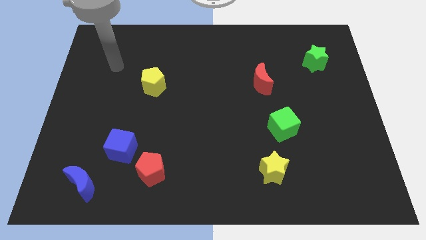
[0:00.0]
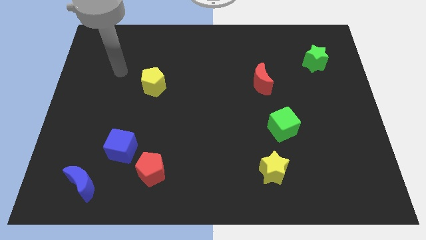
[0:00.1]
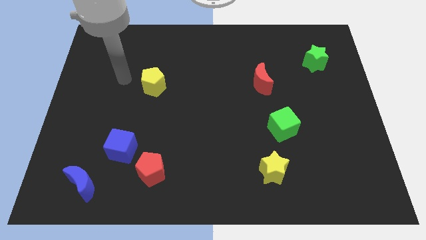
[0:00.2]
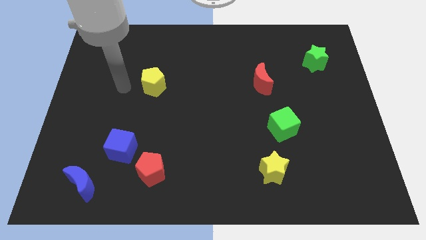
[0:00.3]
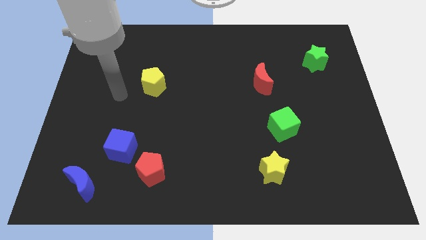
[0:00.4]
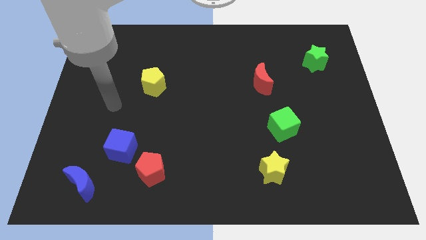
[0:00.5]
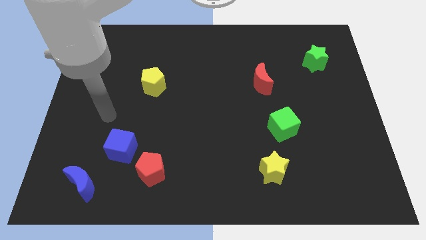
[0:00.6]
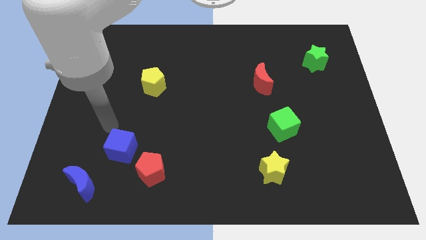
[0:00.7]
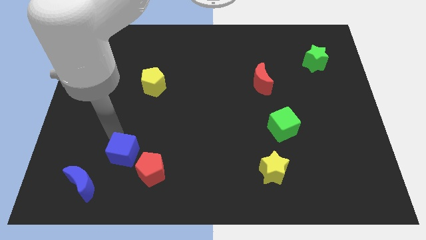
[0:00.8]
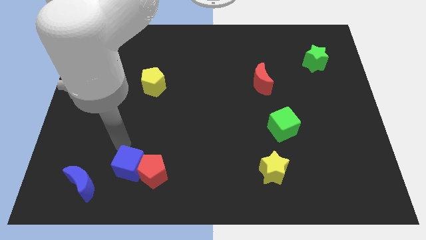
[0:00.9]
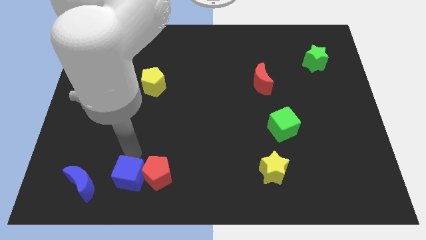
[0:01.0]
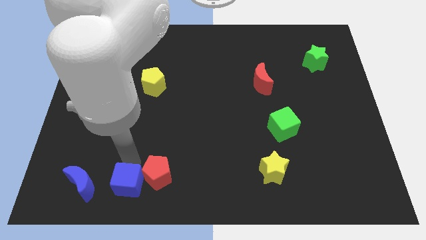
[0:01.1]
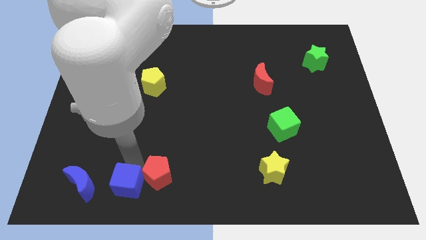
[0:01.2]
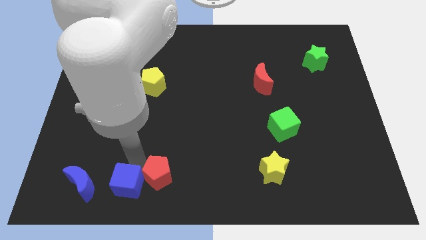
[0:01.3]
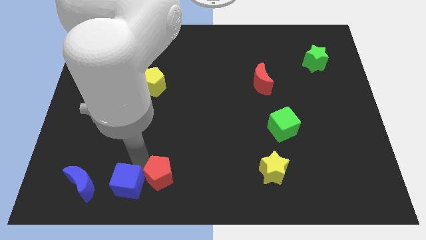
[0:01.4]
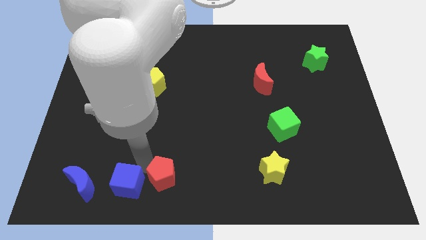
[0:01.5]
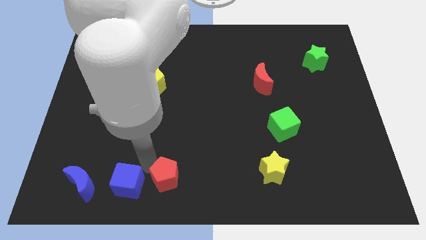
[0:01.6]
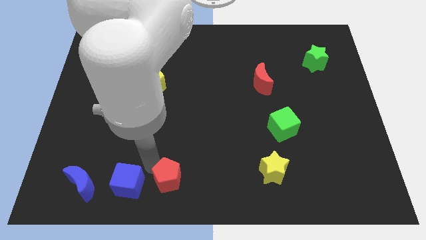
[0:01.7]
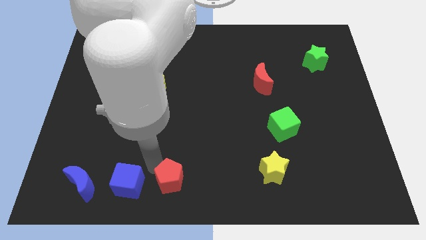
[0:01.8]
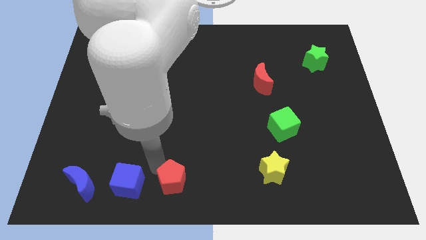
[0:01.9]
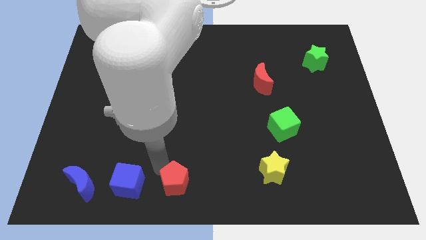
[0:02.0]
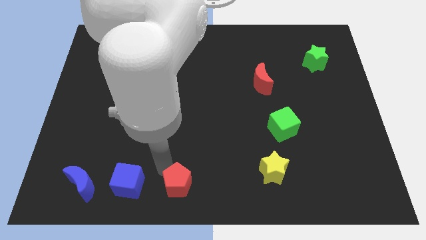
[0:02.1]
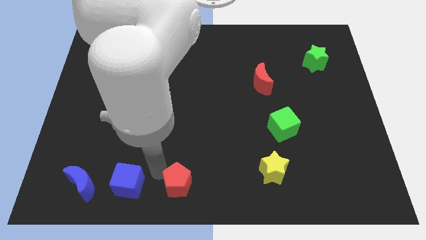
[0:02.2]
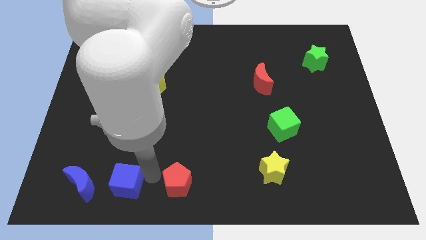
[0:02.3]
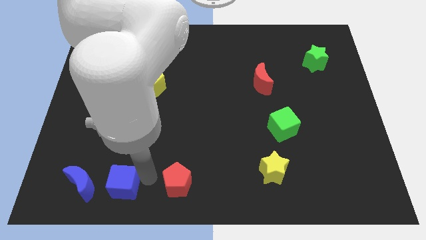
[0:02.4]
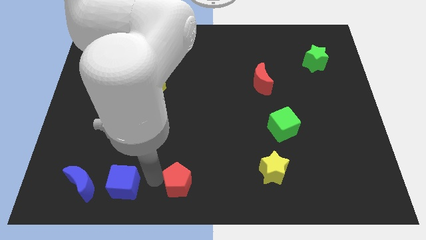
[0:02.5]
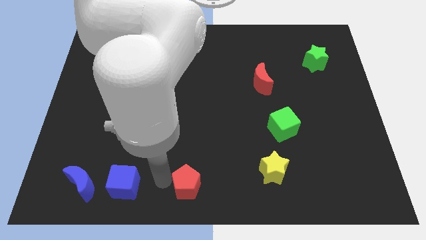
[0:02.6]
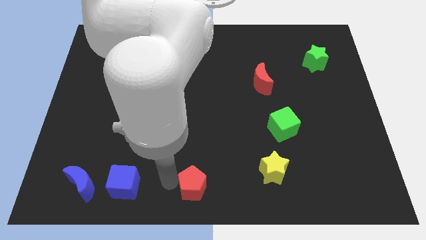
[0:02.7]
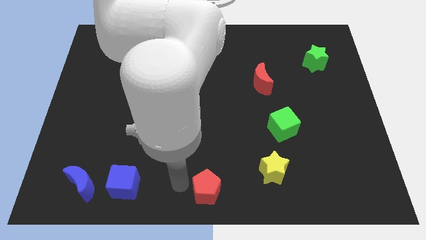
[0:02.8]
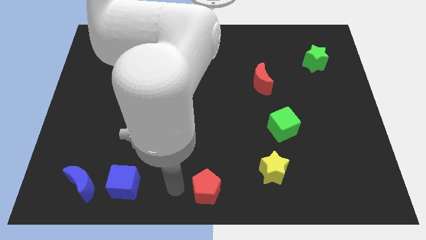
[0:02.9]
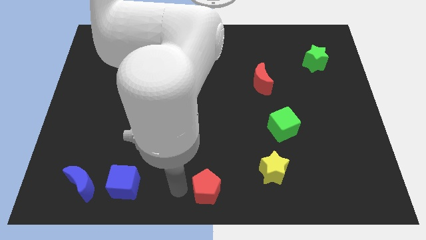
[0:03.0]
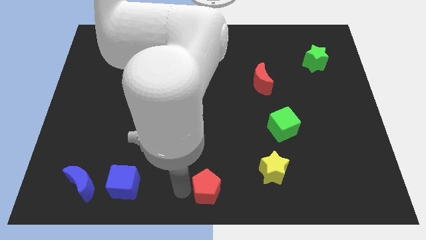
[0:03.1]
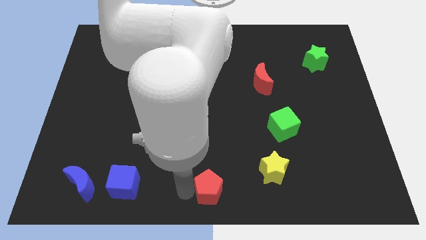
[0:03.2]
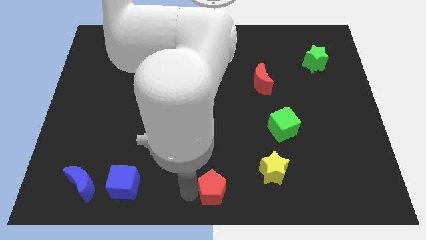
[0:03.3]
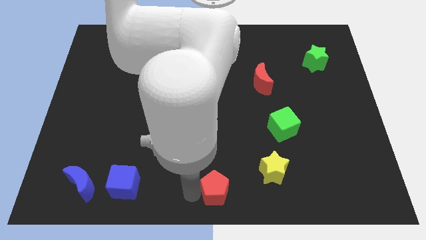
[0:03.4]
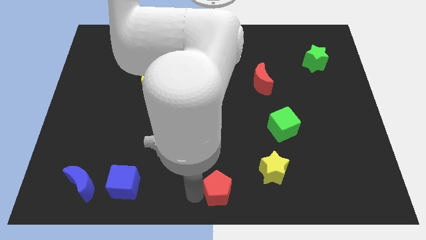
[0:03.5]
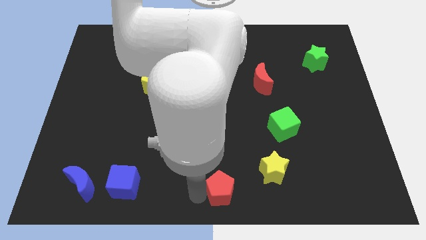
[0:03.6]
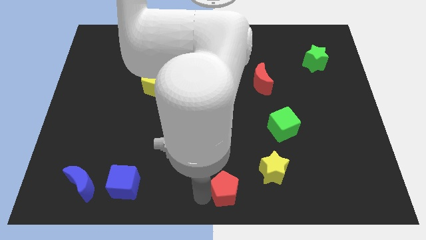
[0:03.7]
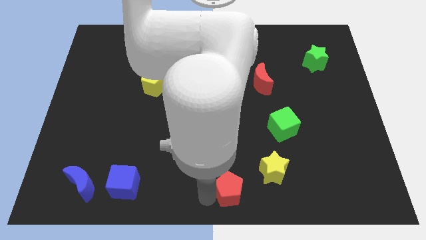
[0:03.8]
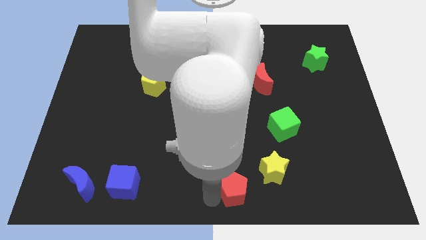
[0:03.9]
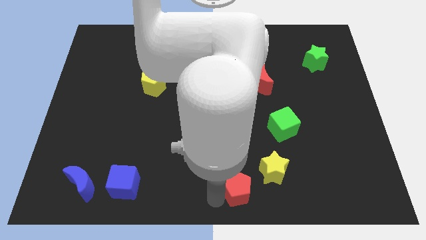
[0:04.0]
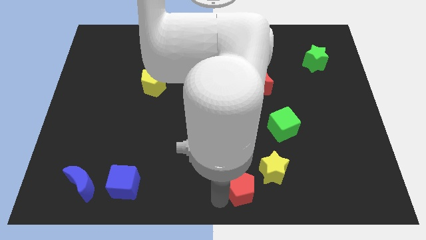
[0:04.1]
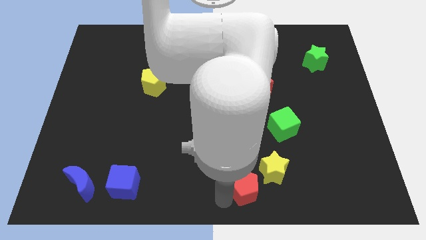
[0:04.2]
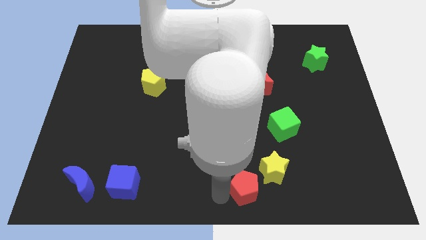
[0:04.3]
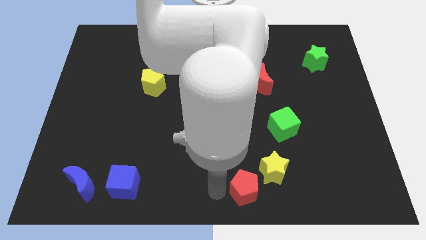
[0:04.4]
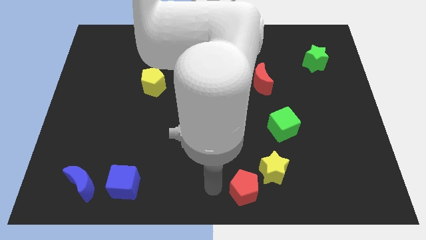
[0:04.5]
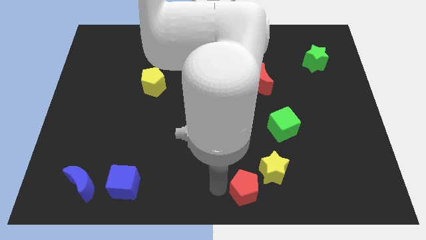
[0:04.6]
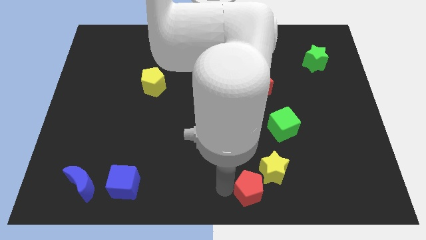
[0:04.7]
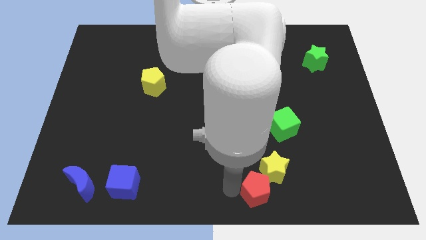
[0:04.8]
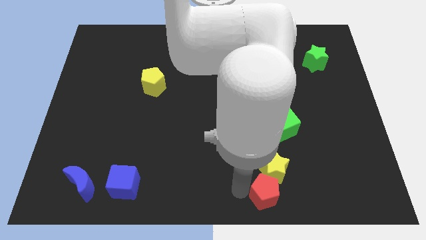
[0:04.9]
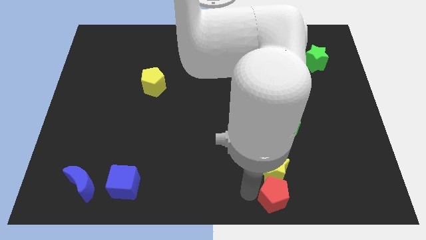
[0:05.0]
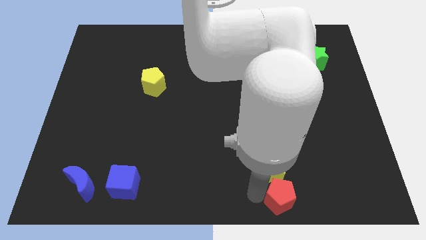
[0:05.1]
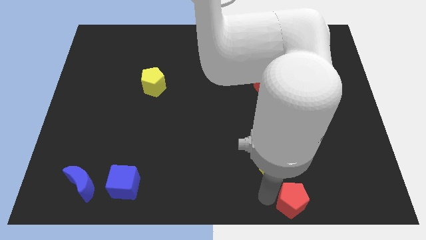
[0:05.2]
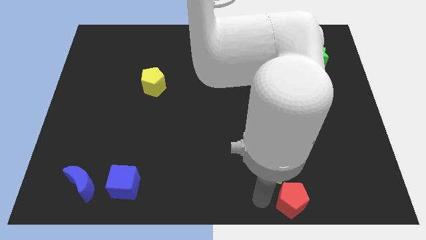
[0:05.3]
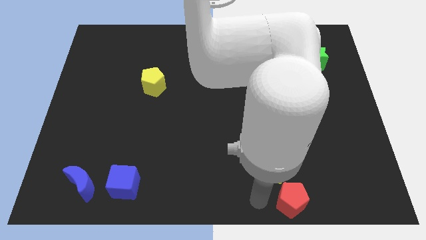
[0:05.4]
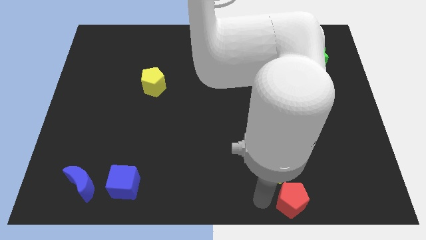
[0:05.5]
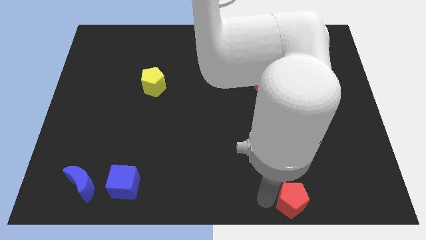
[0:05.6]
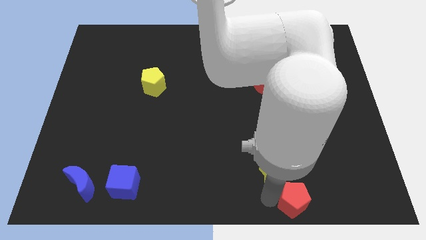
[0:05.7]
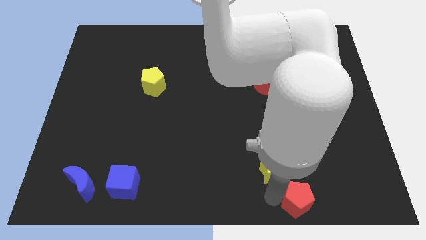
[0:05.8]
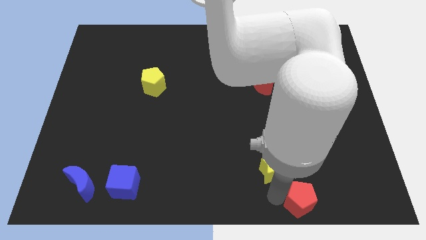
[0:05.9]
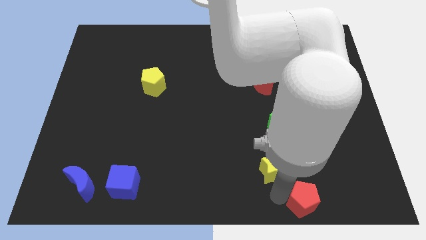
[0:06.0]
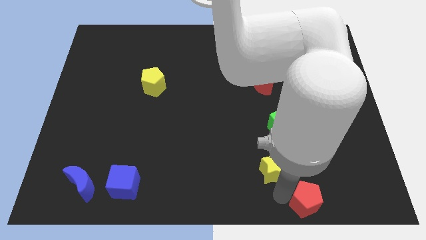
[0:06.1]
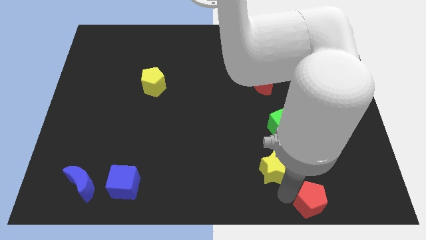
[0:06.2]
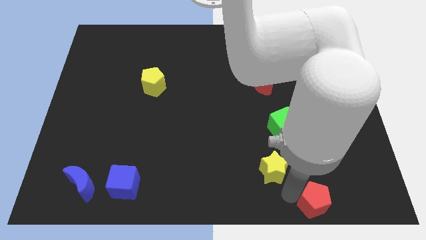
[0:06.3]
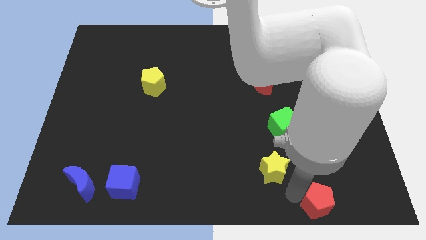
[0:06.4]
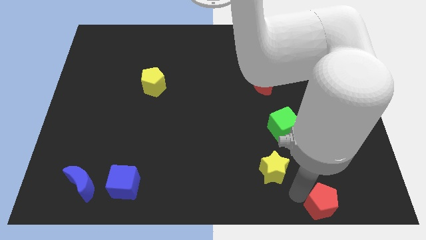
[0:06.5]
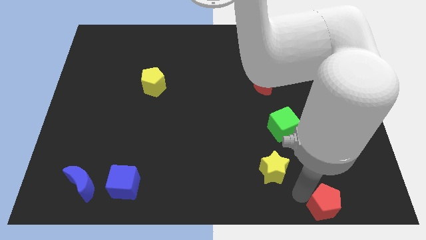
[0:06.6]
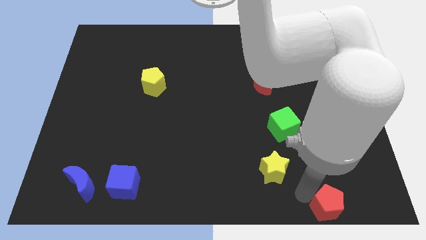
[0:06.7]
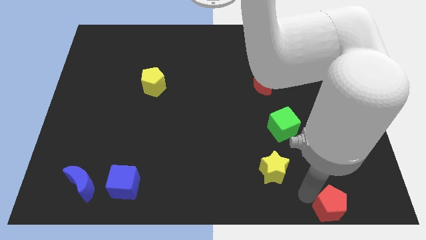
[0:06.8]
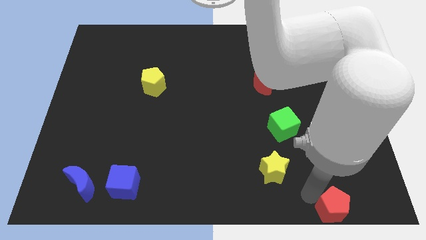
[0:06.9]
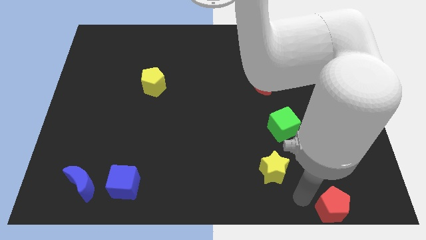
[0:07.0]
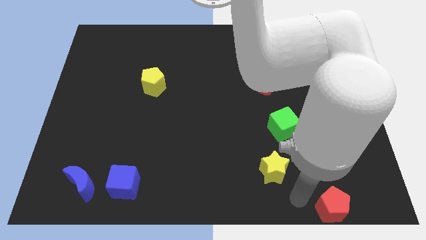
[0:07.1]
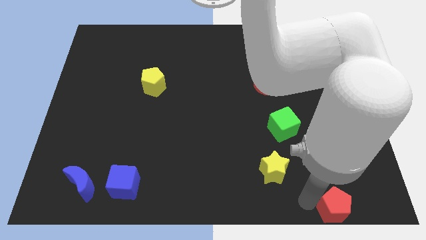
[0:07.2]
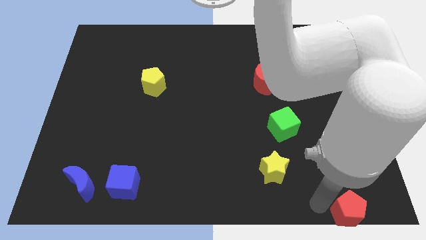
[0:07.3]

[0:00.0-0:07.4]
push the red pentagon to the lower right corner
